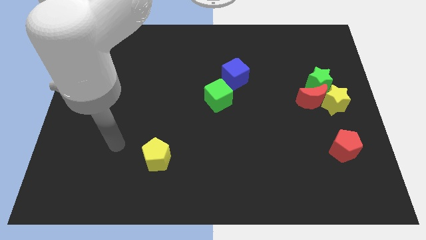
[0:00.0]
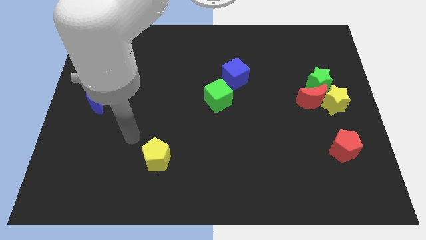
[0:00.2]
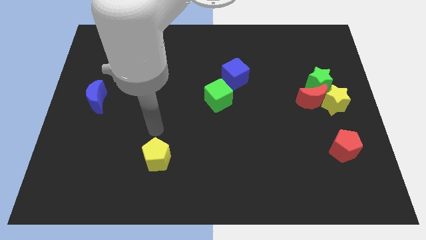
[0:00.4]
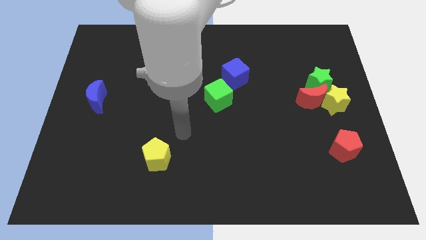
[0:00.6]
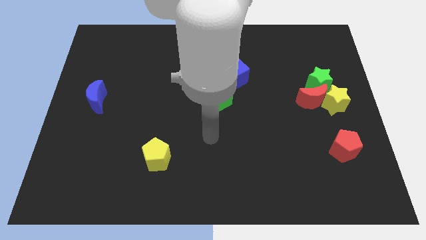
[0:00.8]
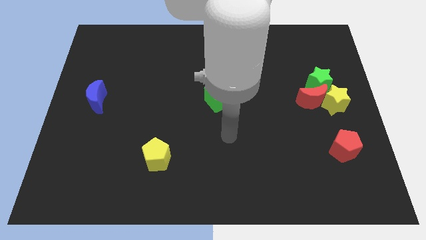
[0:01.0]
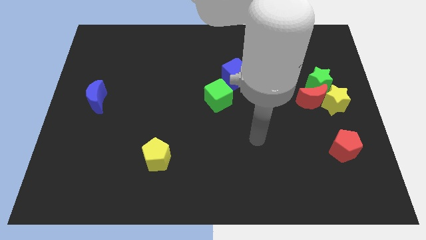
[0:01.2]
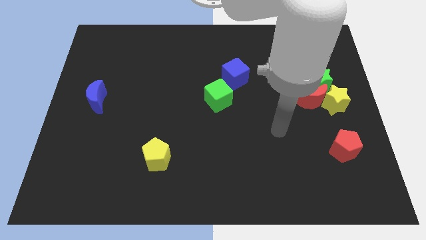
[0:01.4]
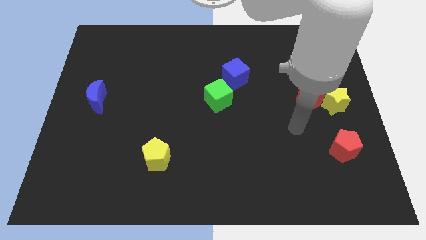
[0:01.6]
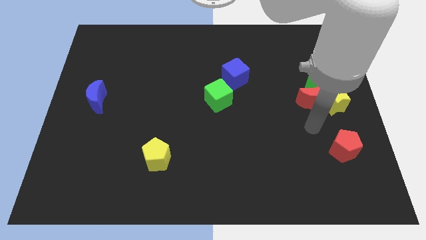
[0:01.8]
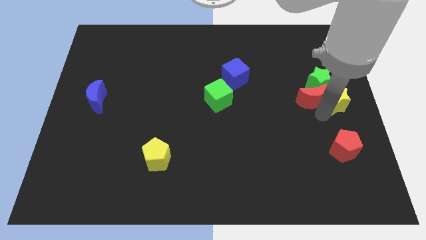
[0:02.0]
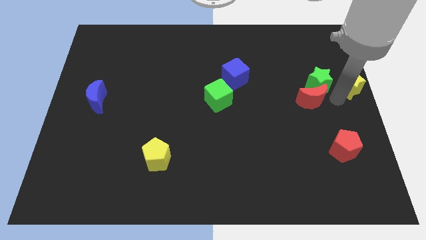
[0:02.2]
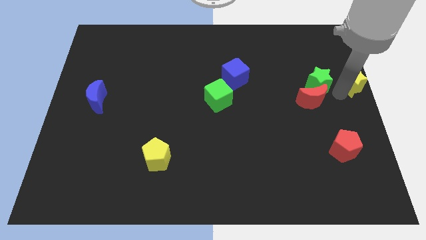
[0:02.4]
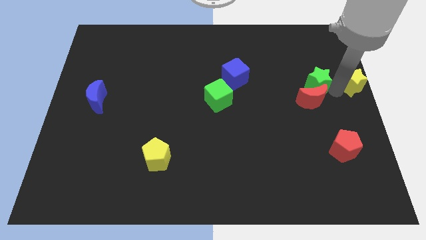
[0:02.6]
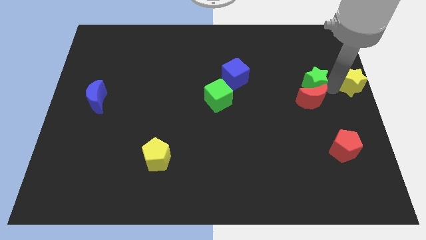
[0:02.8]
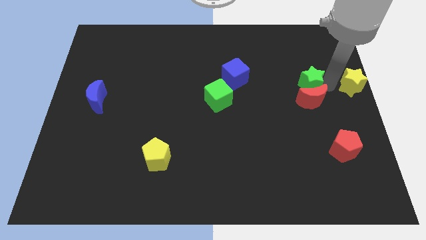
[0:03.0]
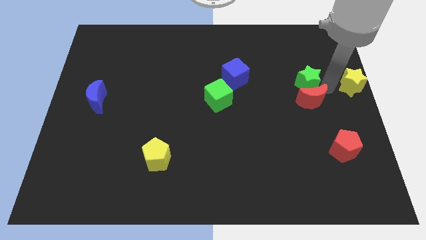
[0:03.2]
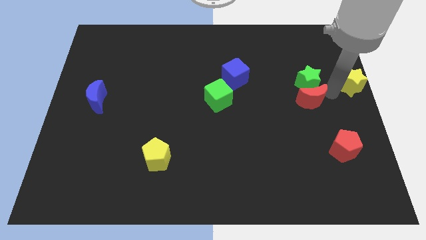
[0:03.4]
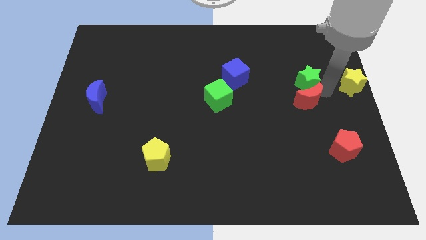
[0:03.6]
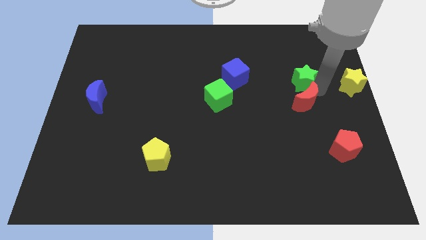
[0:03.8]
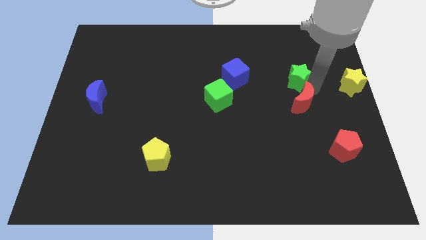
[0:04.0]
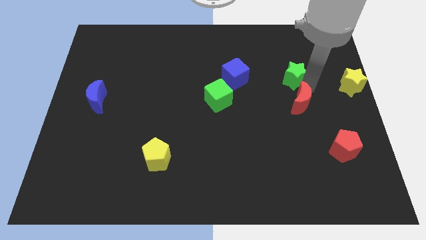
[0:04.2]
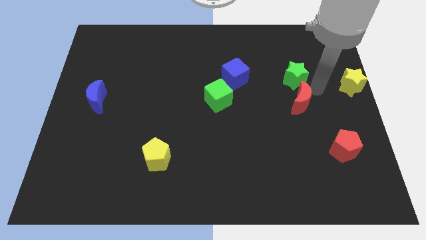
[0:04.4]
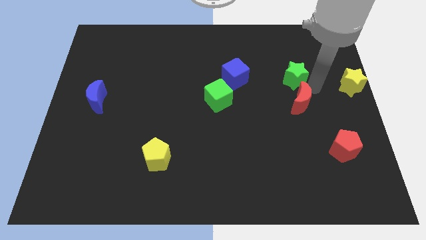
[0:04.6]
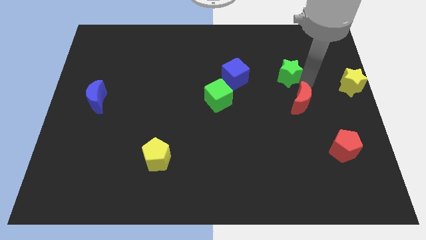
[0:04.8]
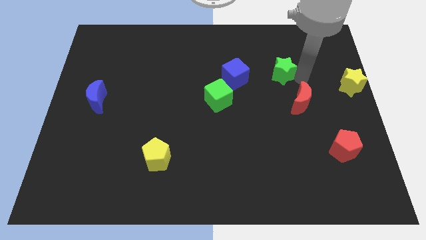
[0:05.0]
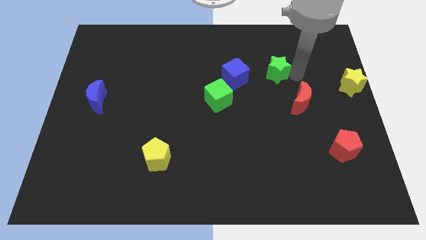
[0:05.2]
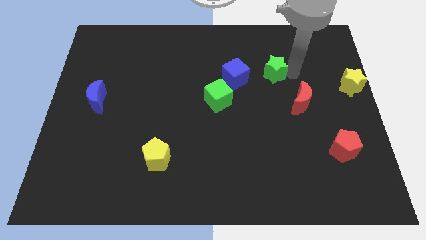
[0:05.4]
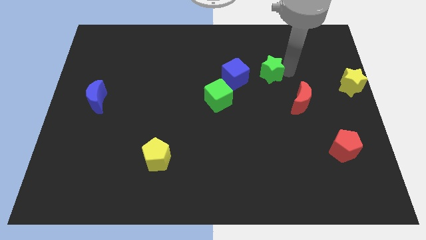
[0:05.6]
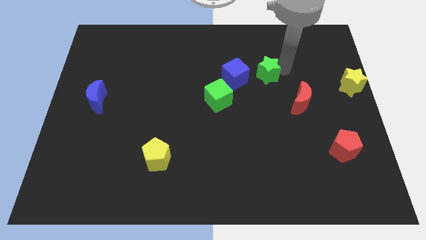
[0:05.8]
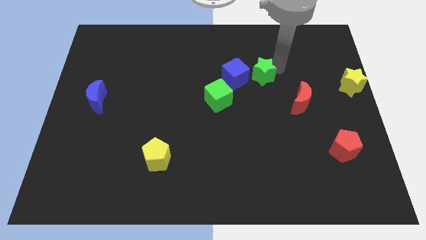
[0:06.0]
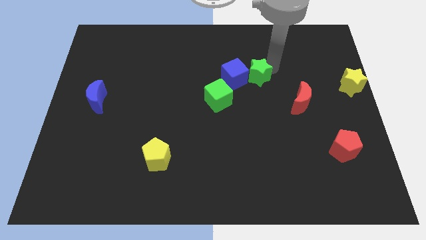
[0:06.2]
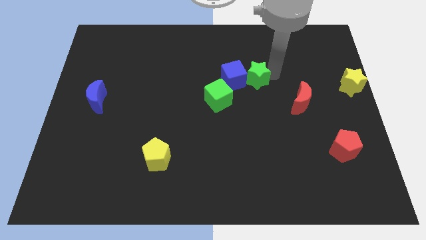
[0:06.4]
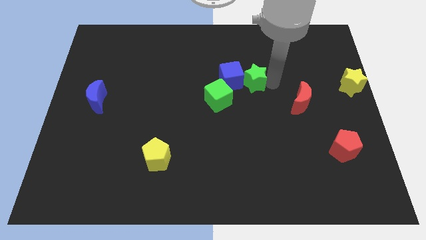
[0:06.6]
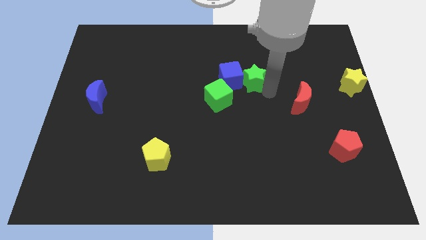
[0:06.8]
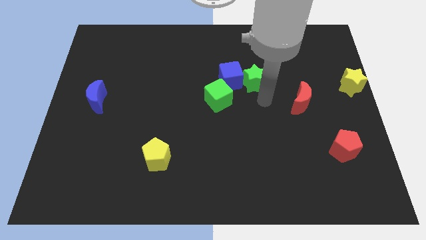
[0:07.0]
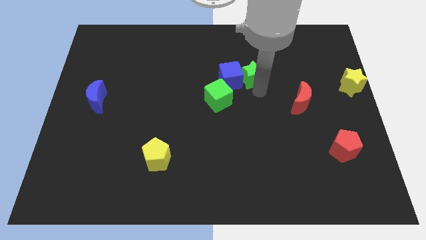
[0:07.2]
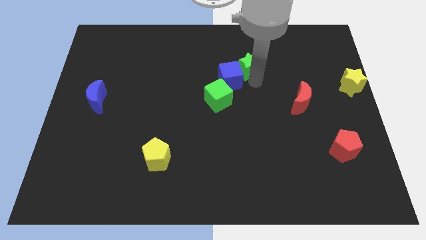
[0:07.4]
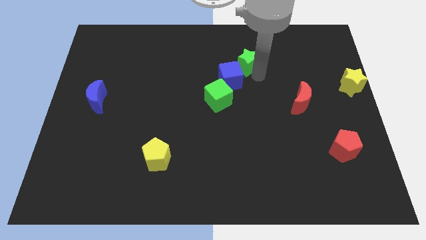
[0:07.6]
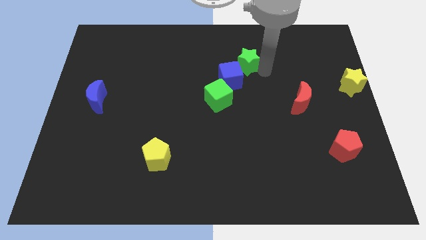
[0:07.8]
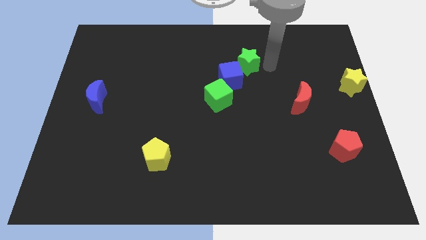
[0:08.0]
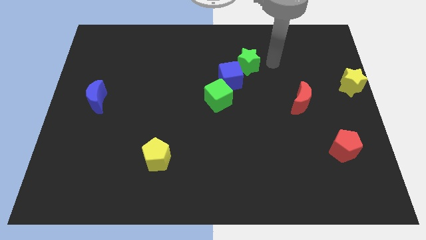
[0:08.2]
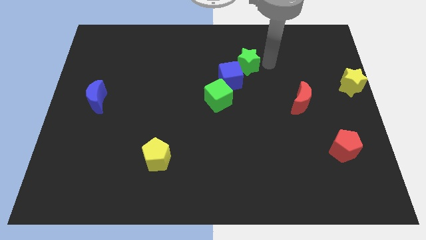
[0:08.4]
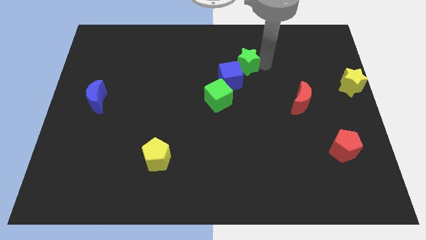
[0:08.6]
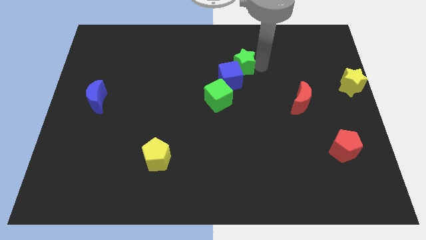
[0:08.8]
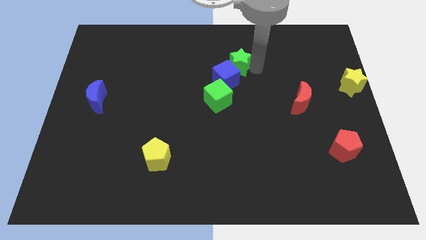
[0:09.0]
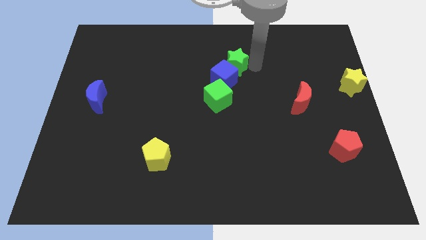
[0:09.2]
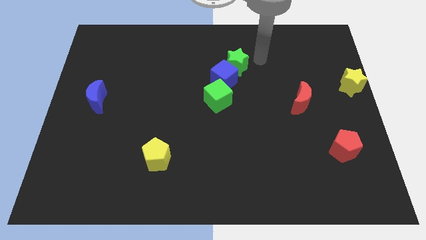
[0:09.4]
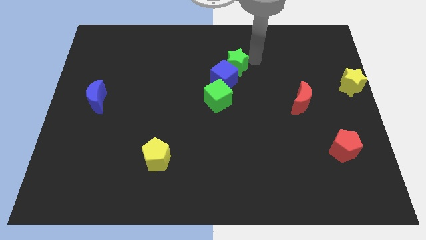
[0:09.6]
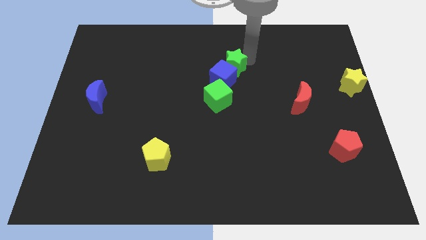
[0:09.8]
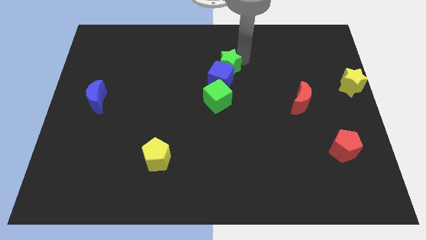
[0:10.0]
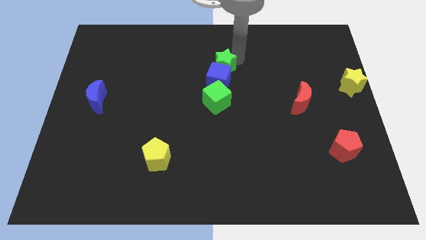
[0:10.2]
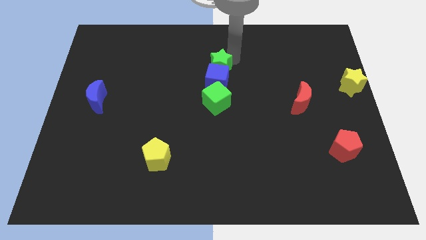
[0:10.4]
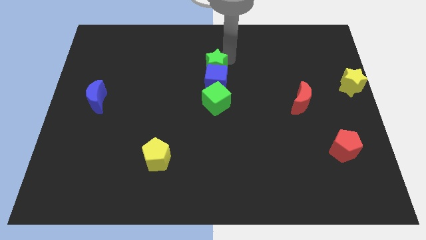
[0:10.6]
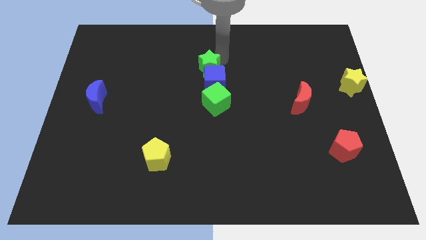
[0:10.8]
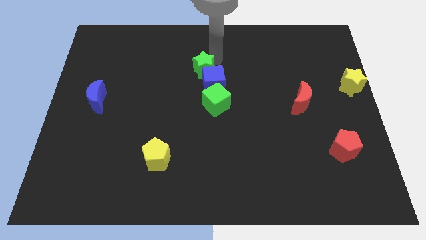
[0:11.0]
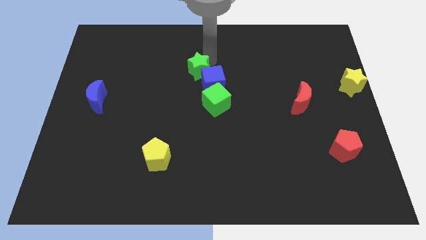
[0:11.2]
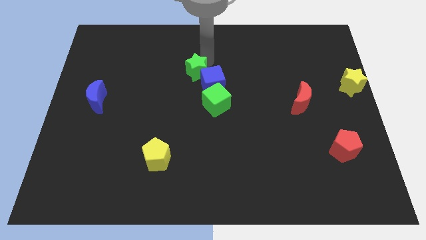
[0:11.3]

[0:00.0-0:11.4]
slide the green star to the top left side of the green cube

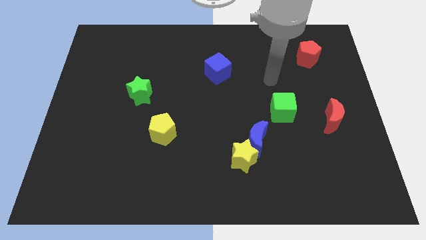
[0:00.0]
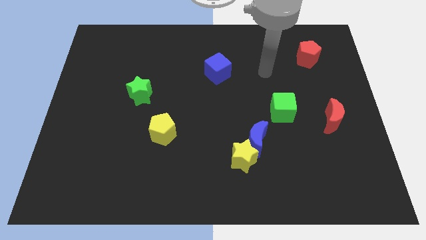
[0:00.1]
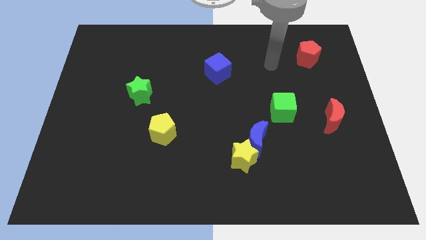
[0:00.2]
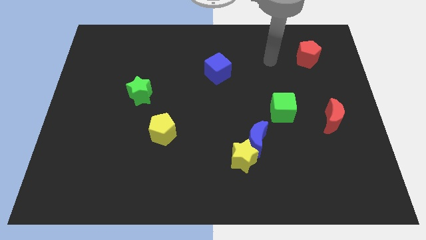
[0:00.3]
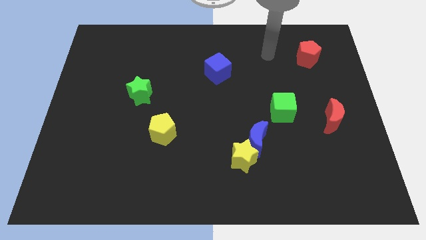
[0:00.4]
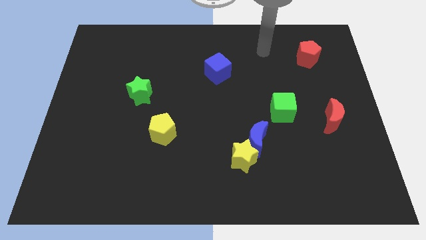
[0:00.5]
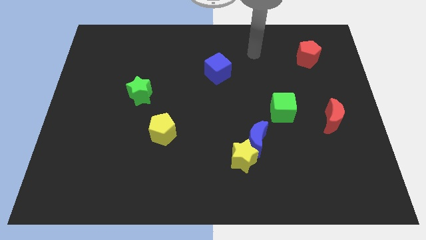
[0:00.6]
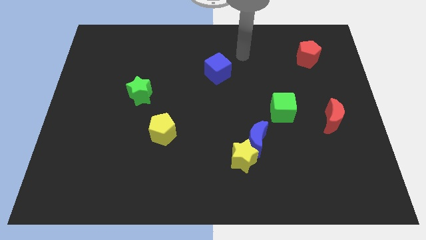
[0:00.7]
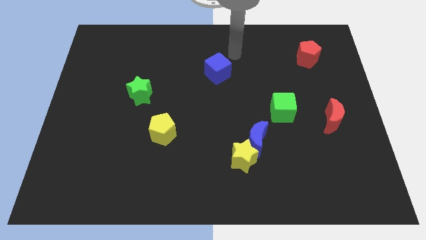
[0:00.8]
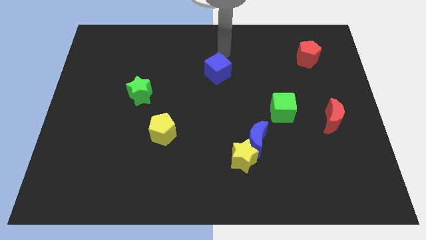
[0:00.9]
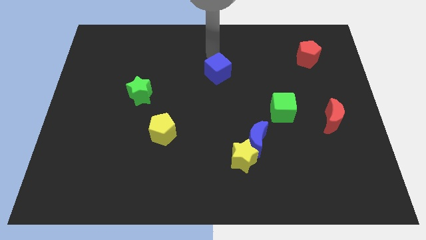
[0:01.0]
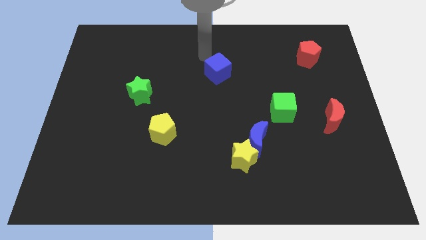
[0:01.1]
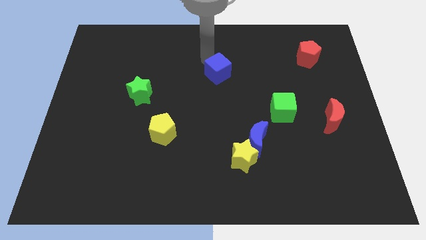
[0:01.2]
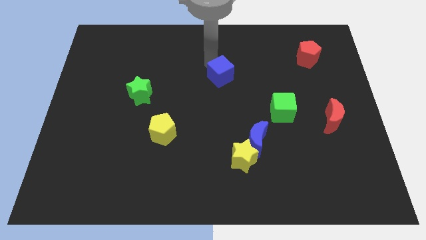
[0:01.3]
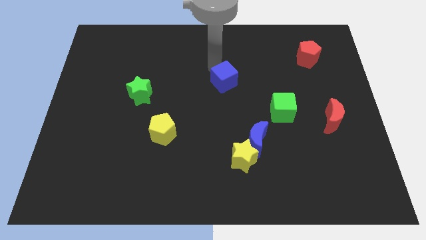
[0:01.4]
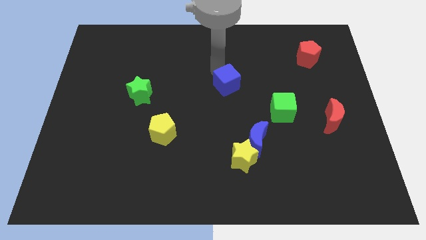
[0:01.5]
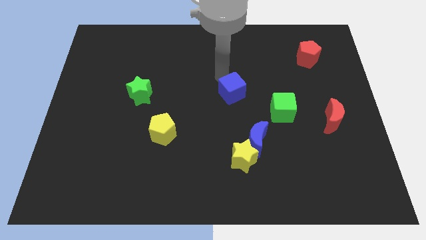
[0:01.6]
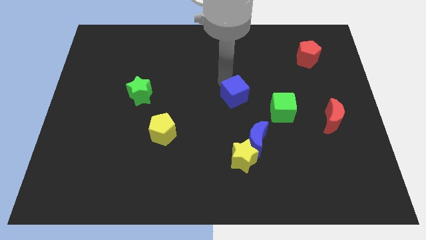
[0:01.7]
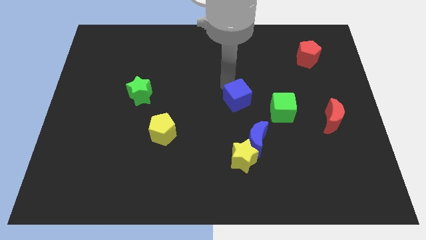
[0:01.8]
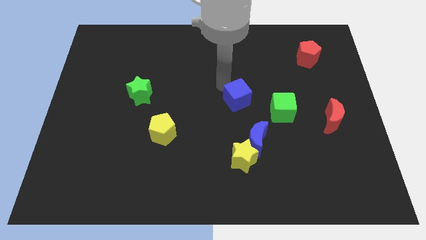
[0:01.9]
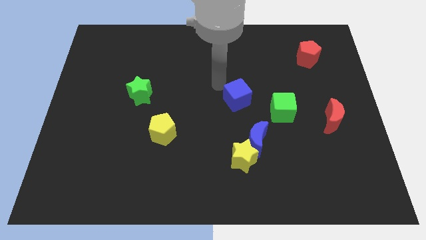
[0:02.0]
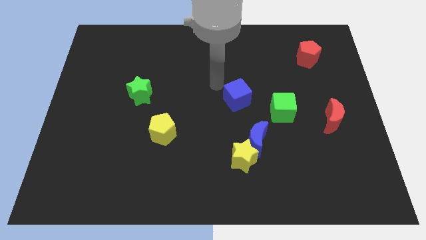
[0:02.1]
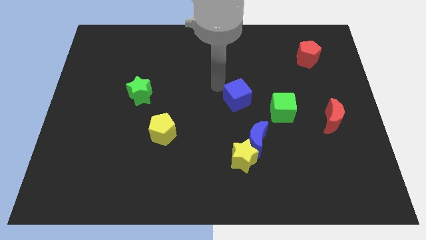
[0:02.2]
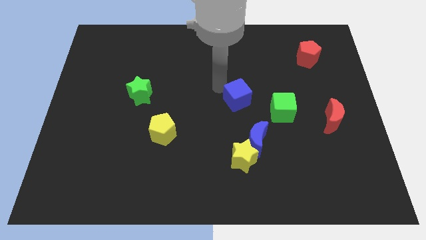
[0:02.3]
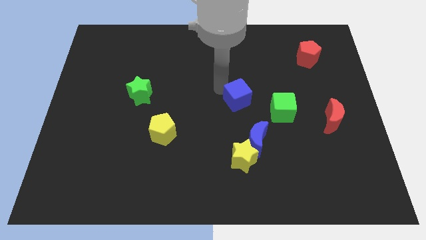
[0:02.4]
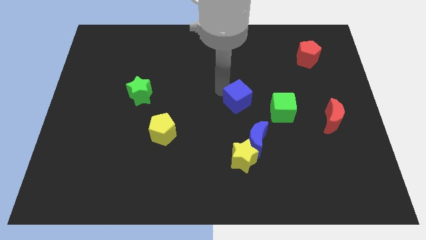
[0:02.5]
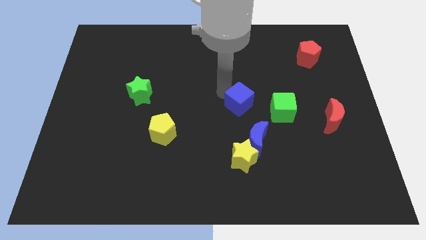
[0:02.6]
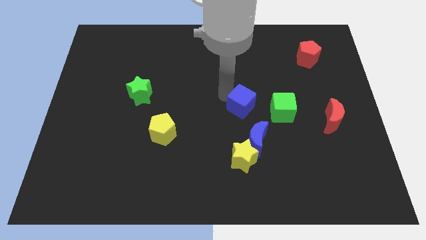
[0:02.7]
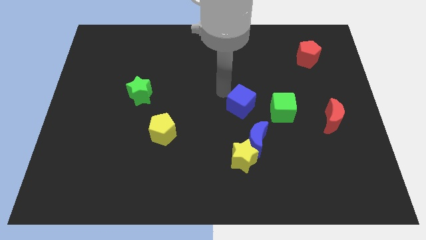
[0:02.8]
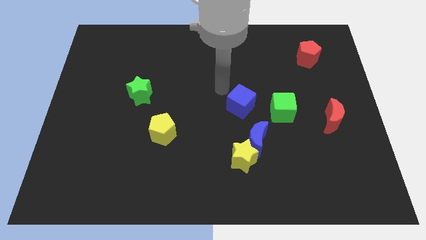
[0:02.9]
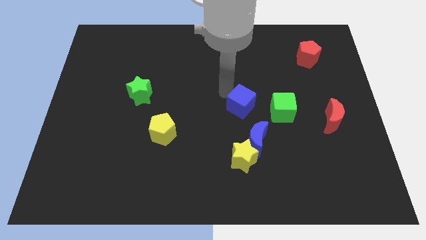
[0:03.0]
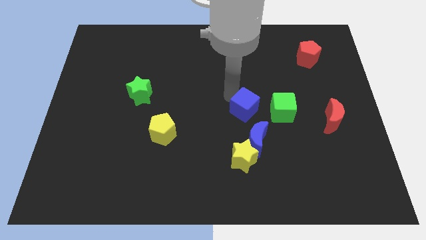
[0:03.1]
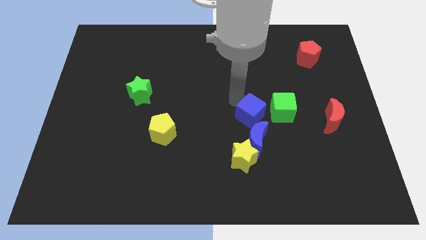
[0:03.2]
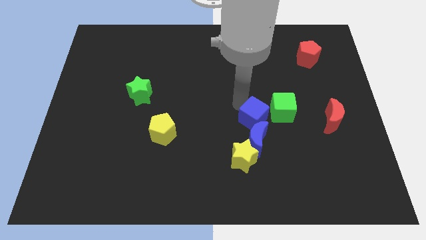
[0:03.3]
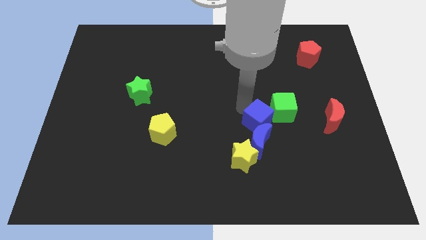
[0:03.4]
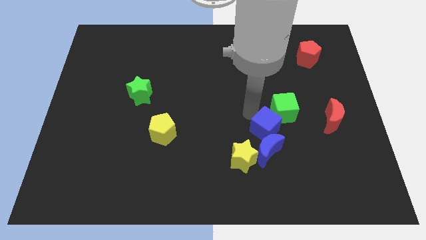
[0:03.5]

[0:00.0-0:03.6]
push the blue cube below the green cube
